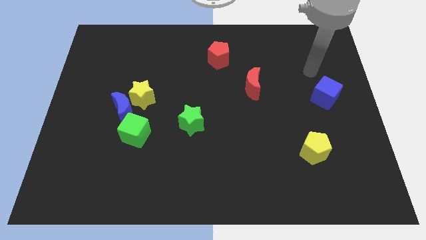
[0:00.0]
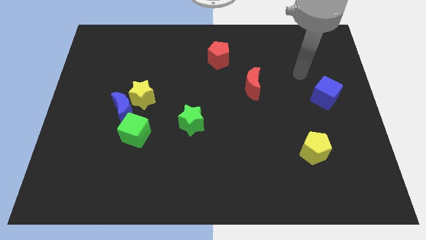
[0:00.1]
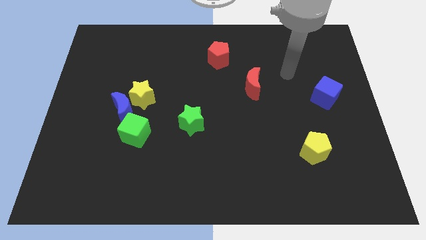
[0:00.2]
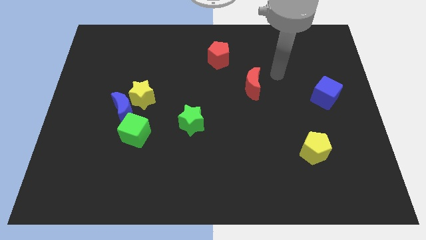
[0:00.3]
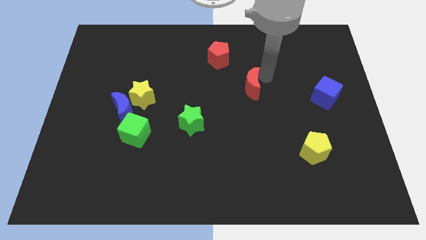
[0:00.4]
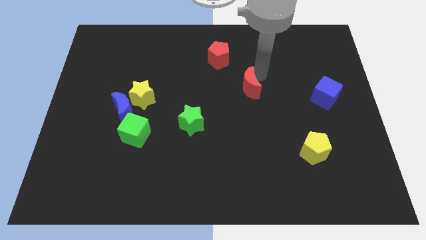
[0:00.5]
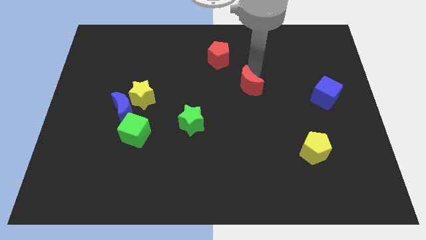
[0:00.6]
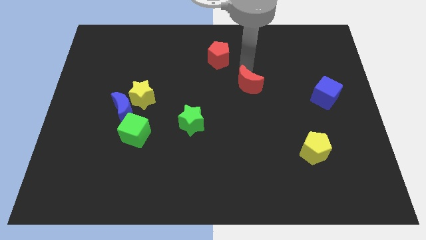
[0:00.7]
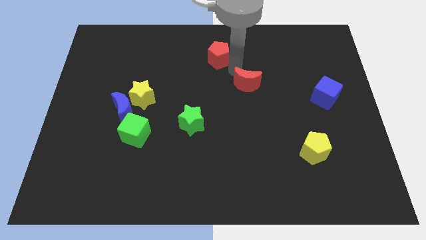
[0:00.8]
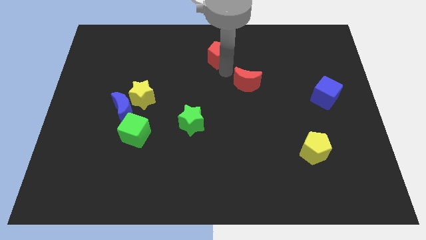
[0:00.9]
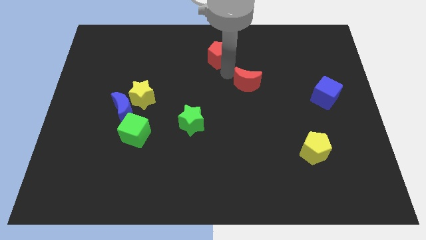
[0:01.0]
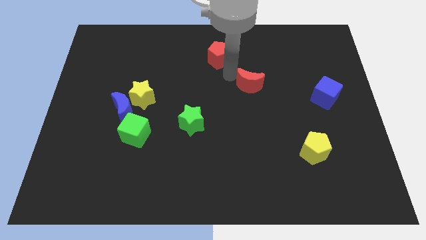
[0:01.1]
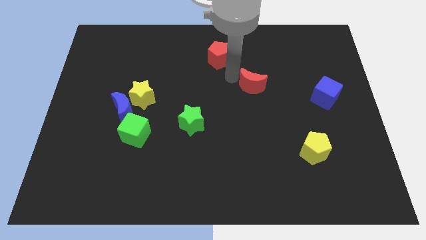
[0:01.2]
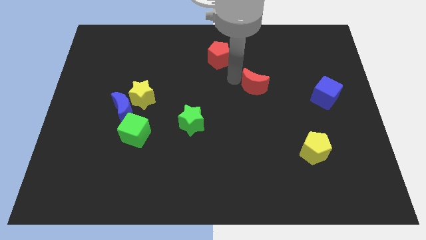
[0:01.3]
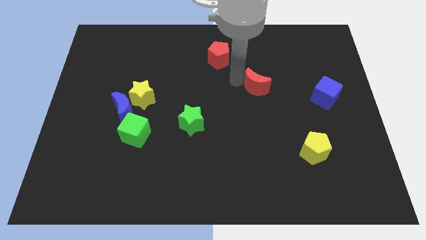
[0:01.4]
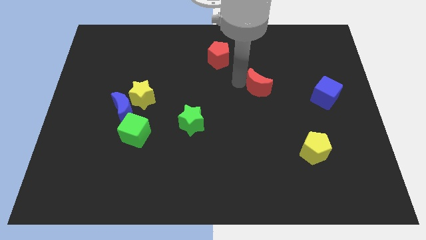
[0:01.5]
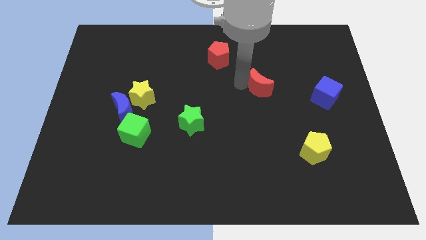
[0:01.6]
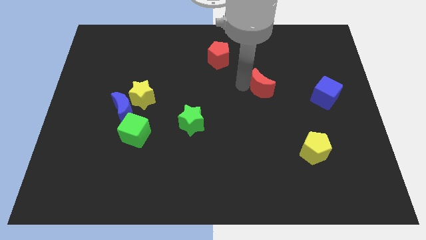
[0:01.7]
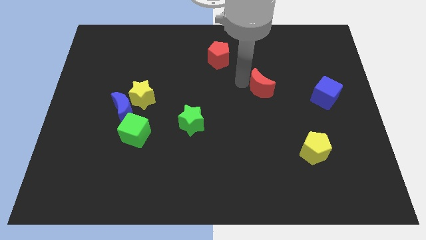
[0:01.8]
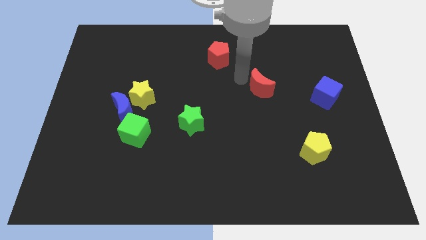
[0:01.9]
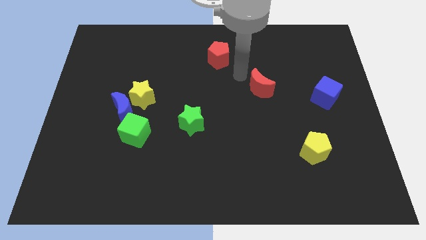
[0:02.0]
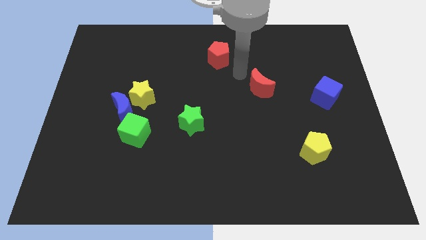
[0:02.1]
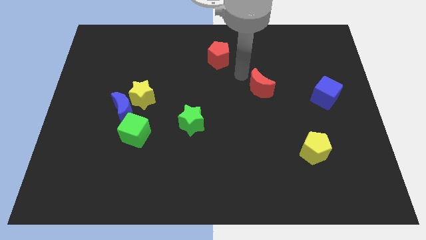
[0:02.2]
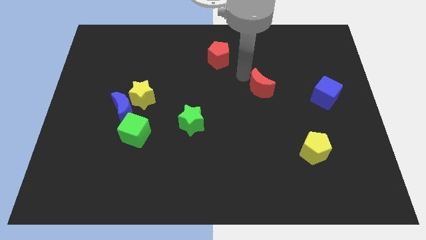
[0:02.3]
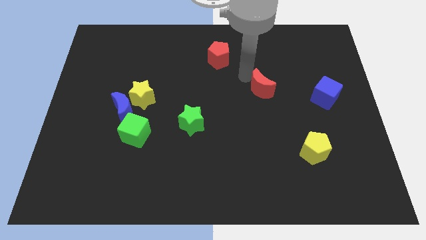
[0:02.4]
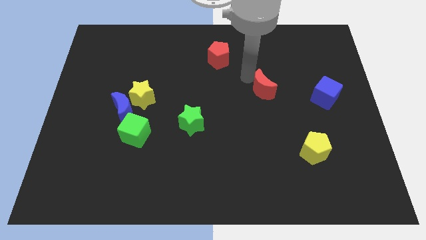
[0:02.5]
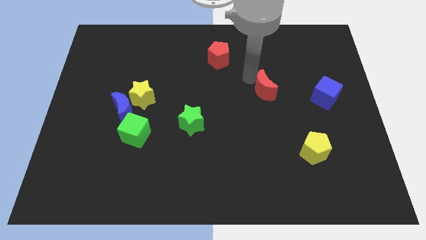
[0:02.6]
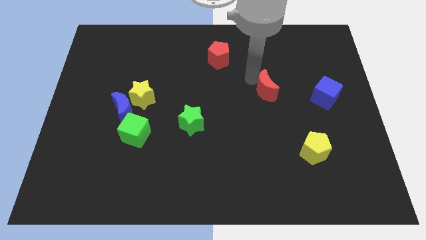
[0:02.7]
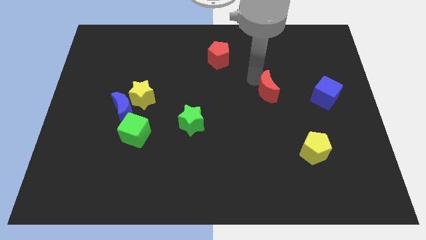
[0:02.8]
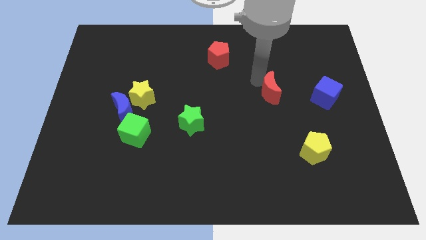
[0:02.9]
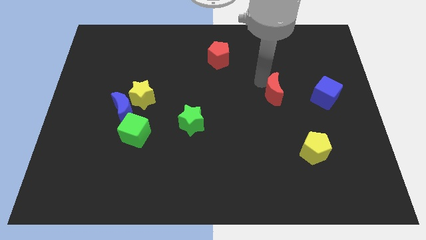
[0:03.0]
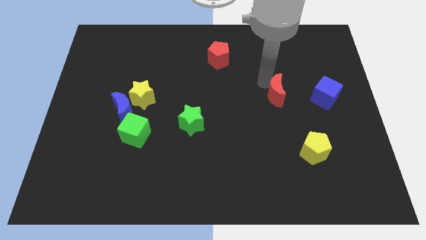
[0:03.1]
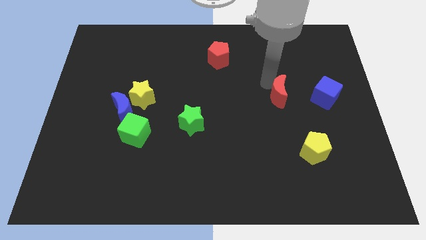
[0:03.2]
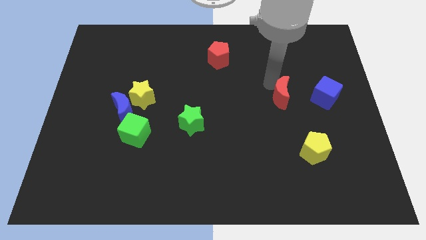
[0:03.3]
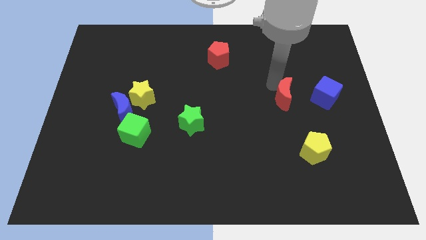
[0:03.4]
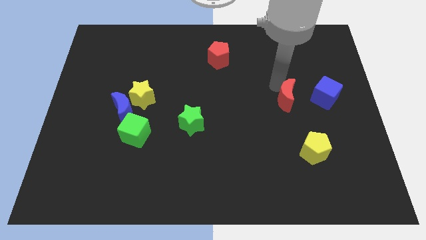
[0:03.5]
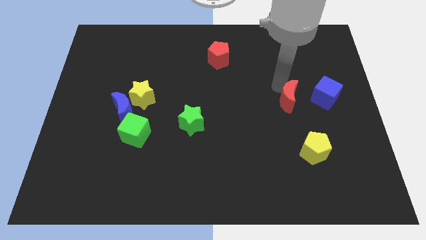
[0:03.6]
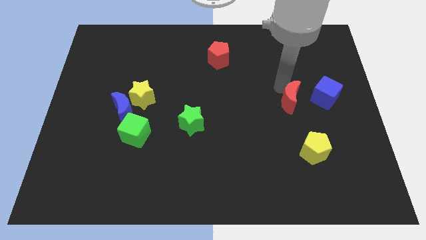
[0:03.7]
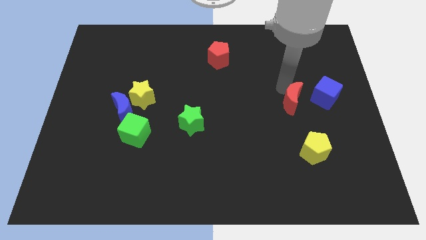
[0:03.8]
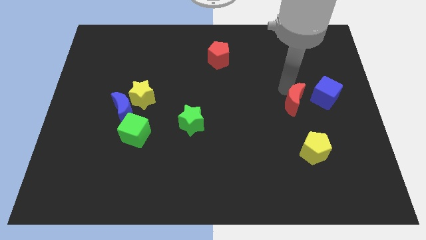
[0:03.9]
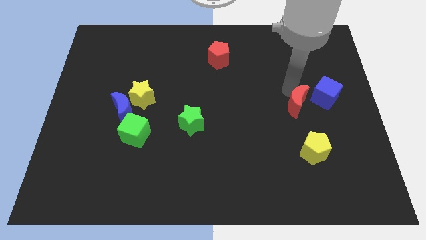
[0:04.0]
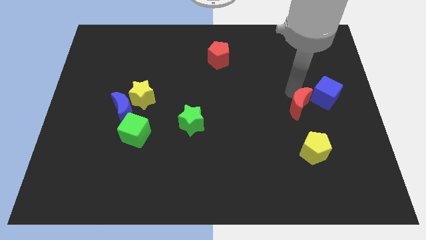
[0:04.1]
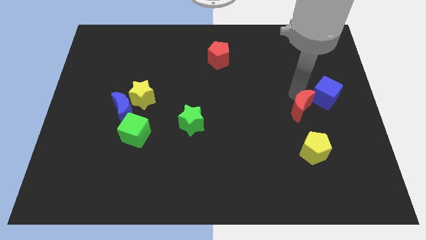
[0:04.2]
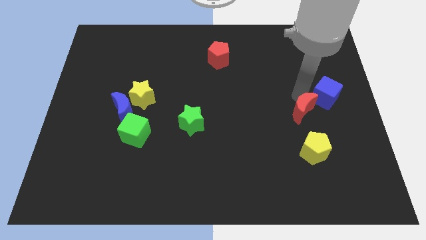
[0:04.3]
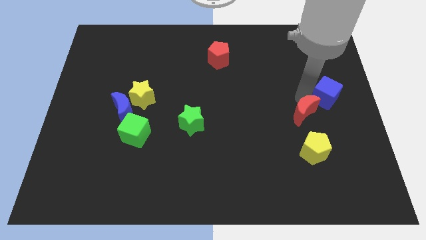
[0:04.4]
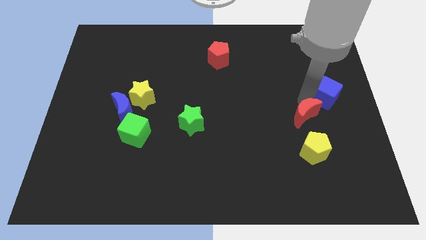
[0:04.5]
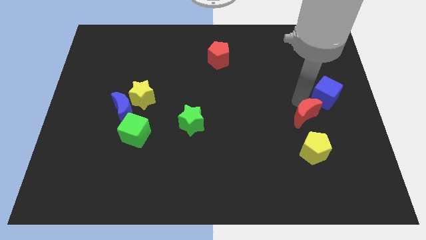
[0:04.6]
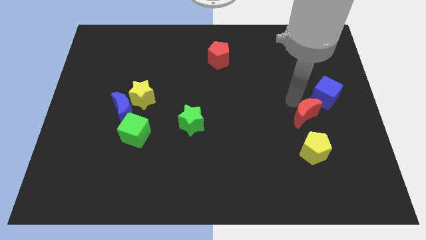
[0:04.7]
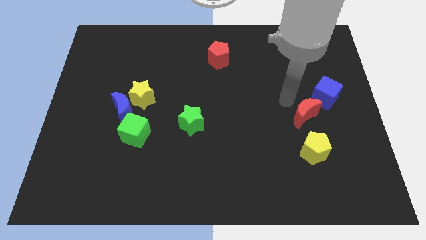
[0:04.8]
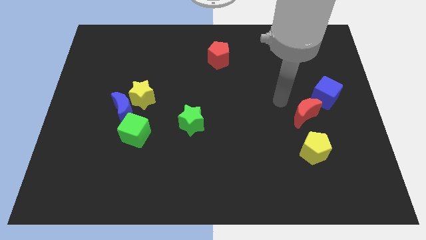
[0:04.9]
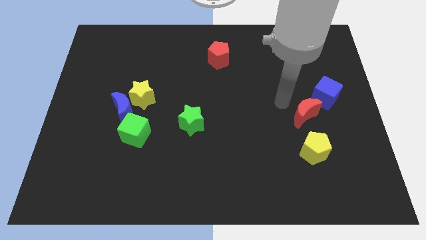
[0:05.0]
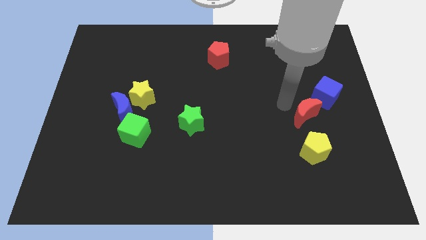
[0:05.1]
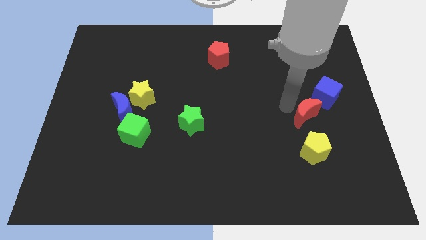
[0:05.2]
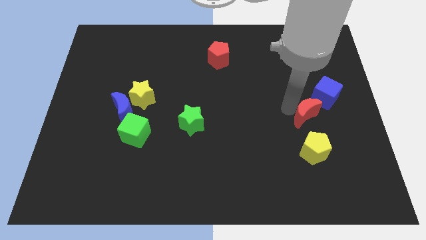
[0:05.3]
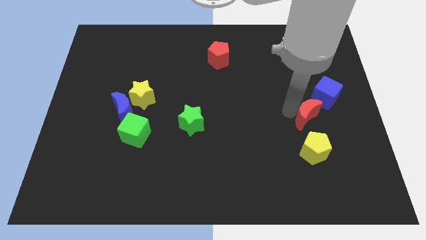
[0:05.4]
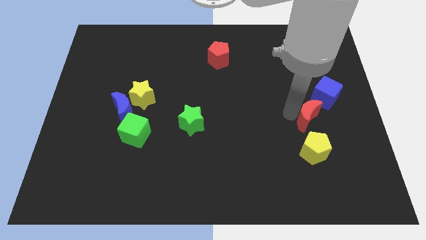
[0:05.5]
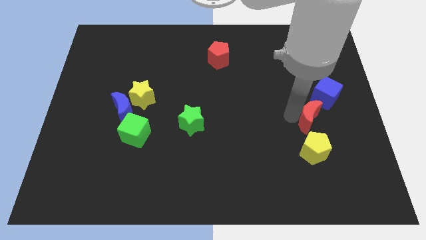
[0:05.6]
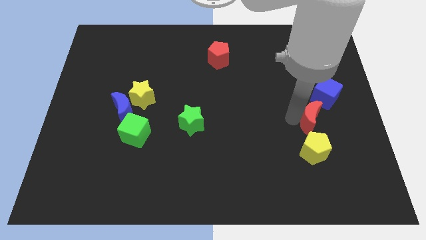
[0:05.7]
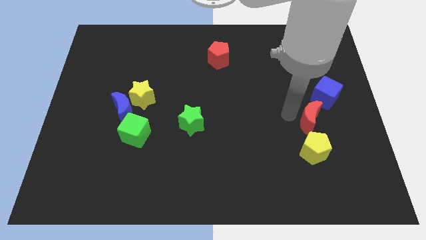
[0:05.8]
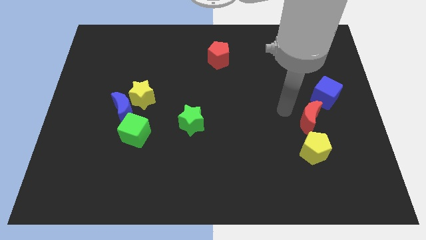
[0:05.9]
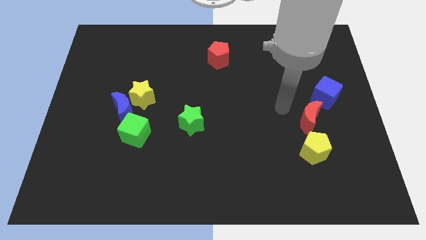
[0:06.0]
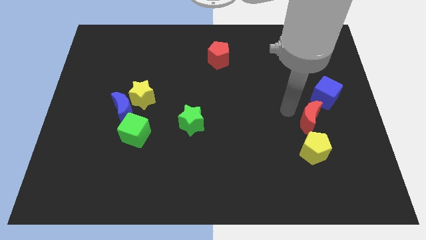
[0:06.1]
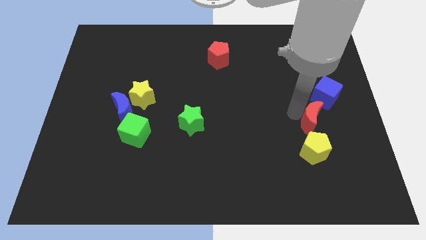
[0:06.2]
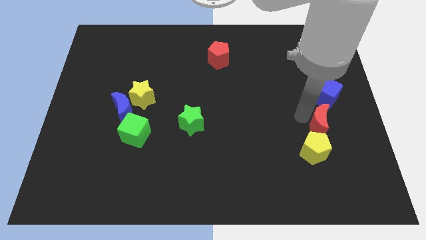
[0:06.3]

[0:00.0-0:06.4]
put the red moon diagonally up and to the right of the yellow pentagon

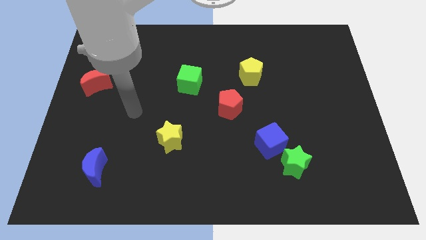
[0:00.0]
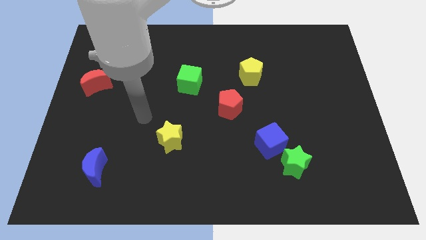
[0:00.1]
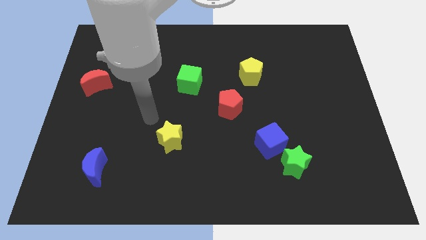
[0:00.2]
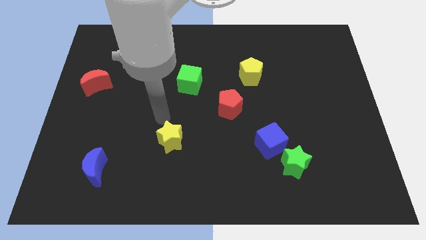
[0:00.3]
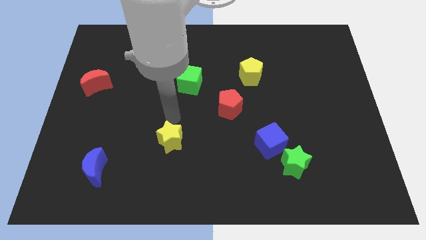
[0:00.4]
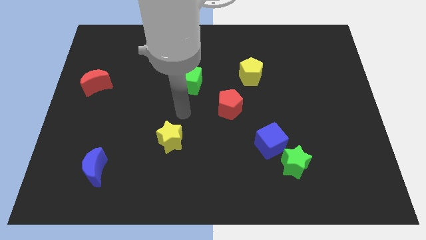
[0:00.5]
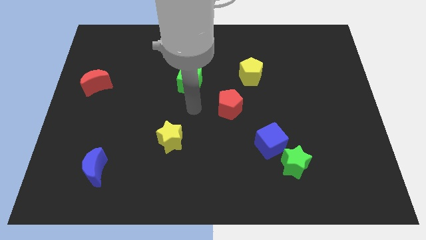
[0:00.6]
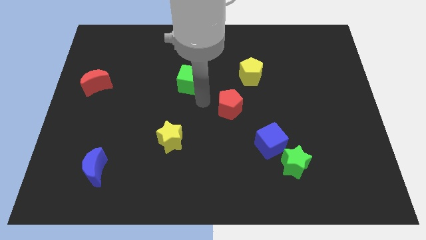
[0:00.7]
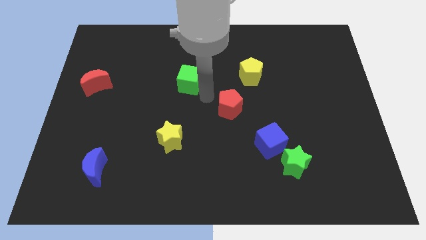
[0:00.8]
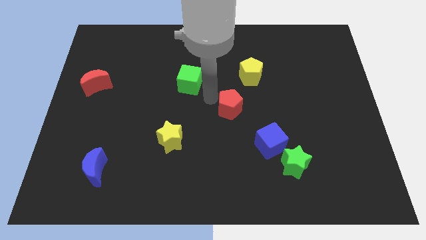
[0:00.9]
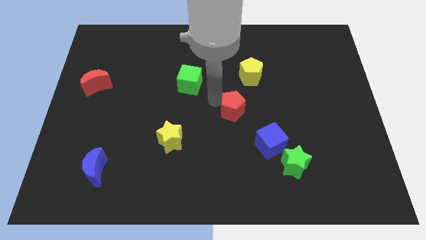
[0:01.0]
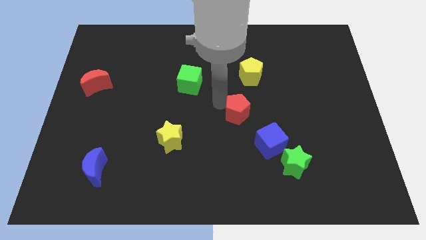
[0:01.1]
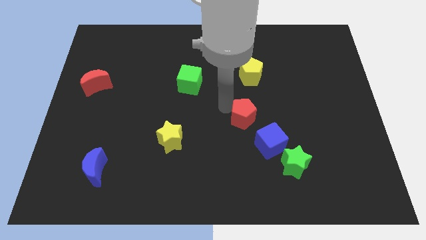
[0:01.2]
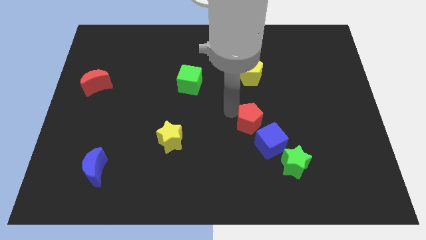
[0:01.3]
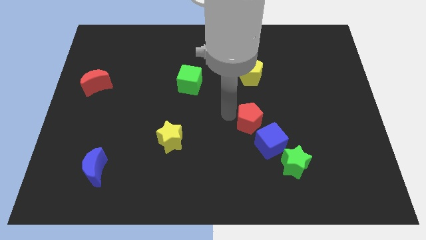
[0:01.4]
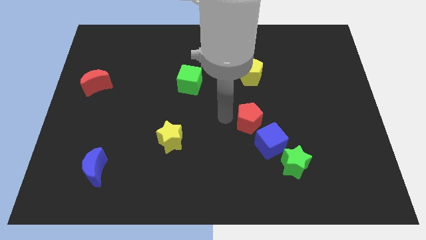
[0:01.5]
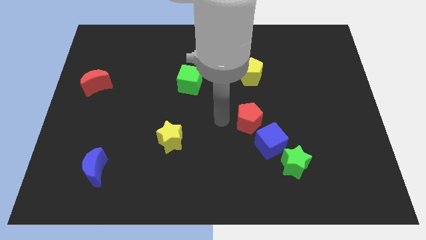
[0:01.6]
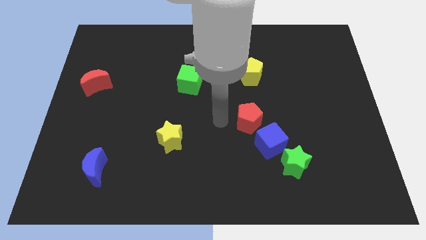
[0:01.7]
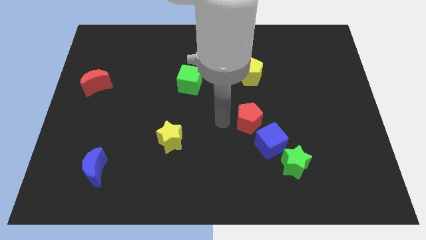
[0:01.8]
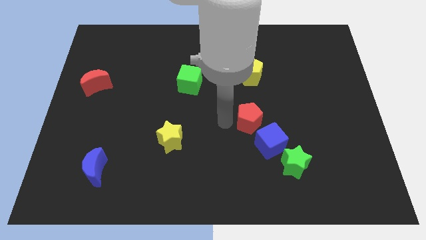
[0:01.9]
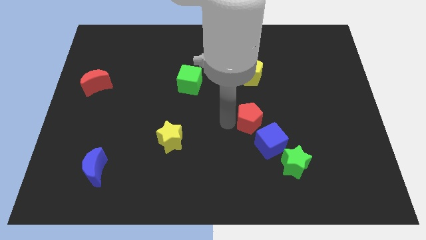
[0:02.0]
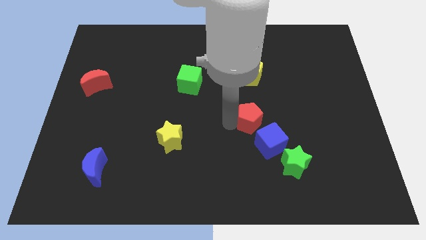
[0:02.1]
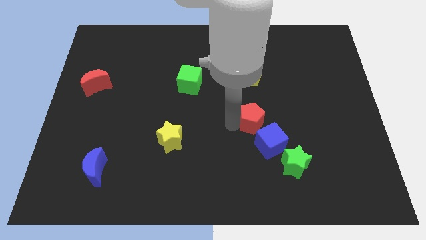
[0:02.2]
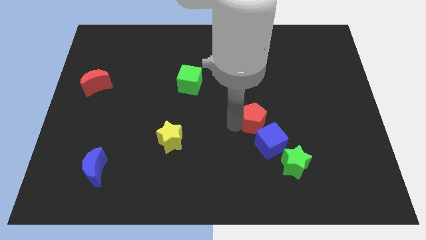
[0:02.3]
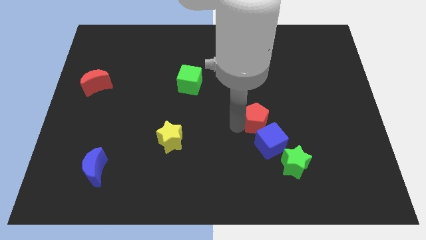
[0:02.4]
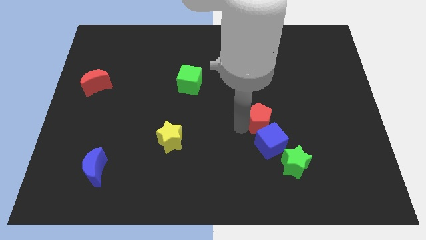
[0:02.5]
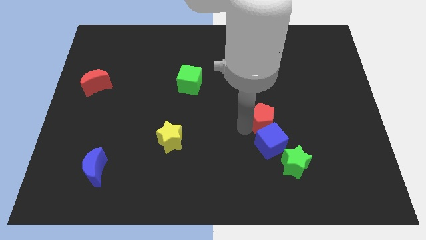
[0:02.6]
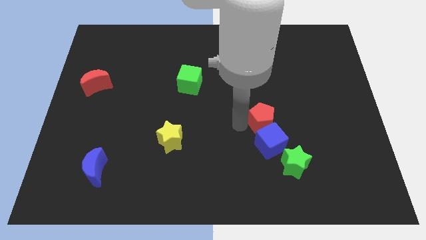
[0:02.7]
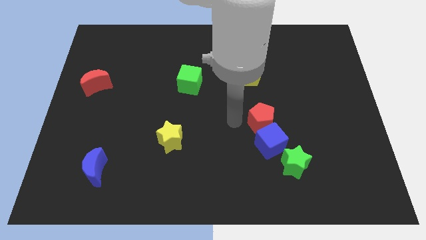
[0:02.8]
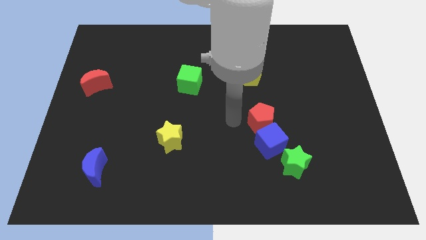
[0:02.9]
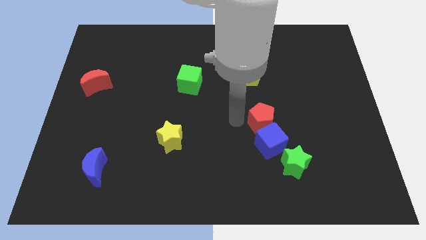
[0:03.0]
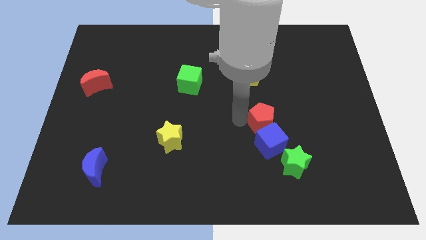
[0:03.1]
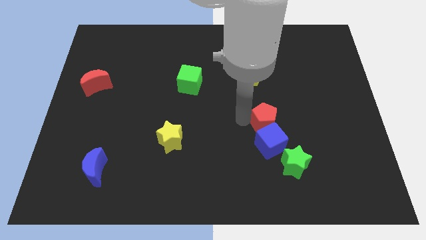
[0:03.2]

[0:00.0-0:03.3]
slide the red pentagon to the top right of the blue cube
